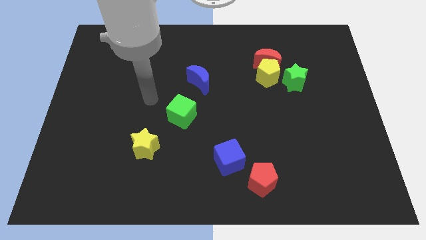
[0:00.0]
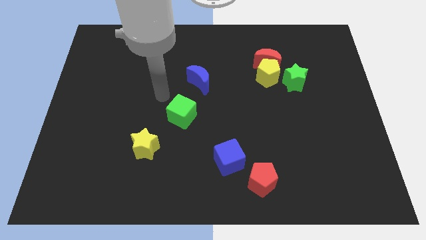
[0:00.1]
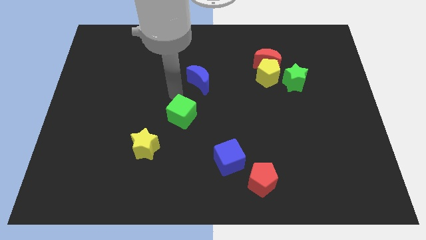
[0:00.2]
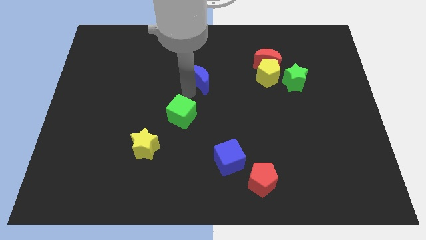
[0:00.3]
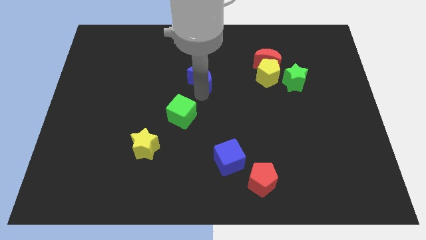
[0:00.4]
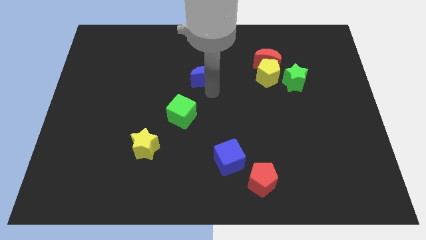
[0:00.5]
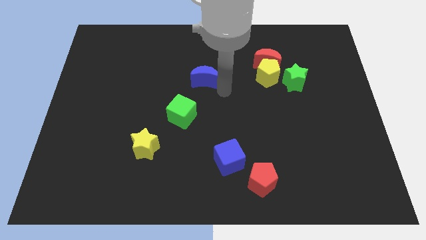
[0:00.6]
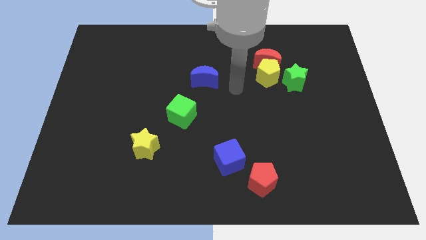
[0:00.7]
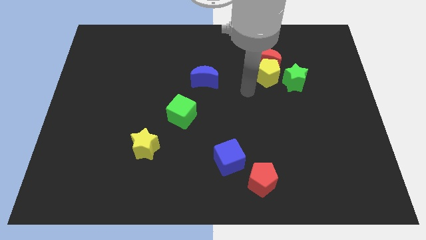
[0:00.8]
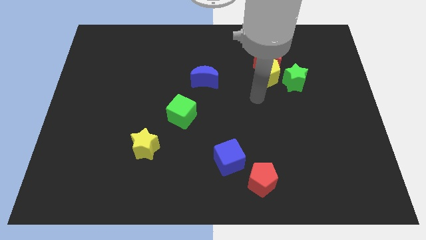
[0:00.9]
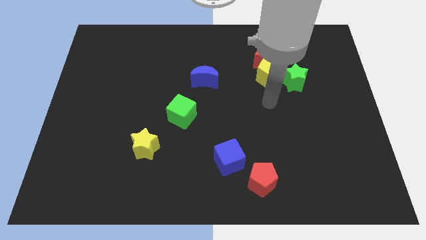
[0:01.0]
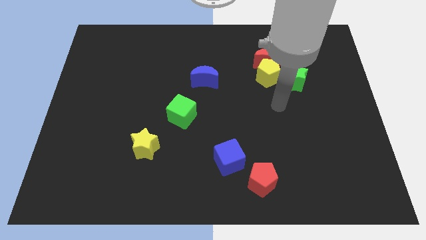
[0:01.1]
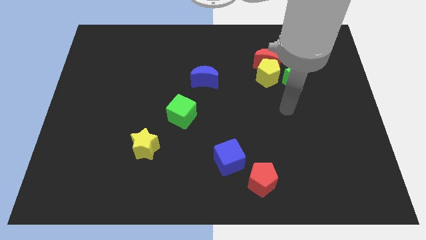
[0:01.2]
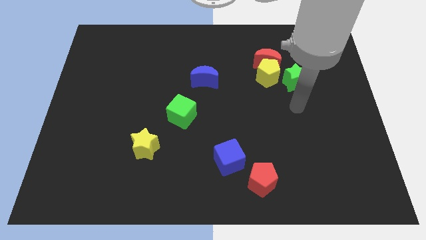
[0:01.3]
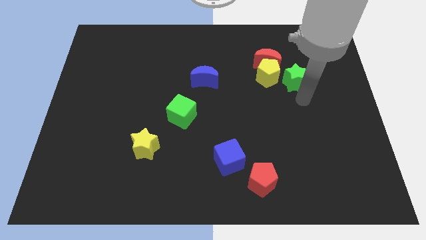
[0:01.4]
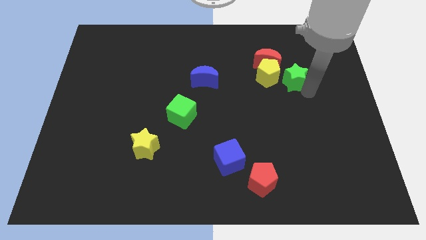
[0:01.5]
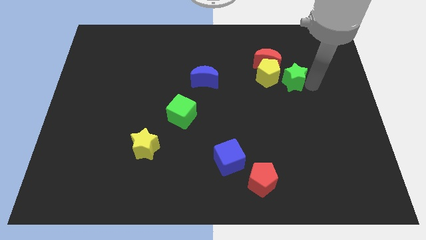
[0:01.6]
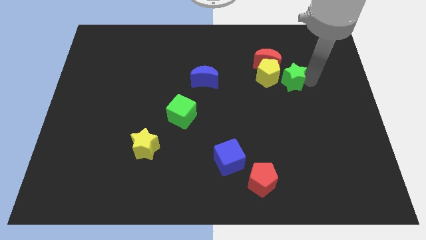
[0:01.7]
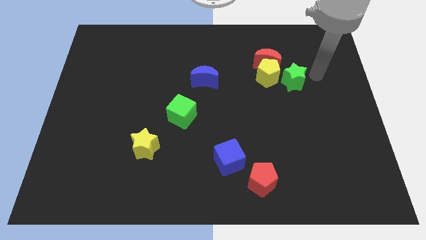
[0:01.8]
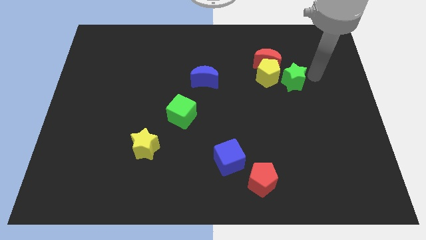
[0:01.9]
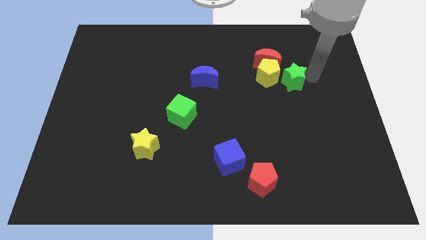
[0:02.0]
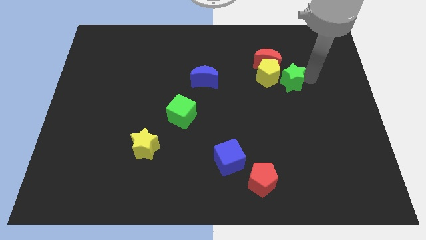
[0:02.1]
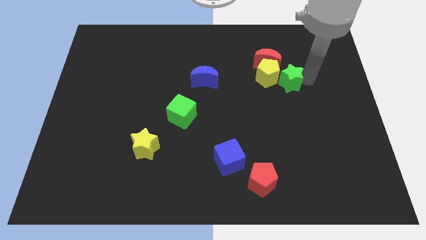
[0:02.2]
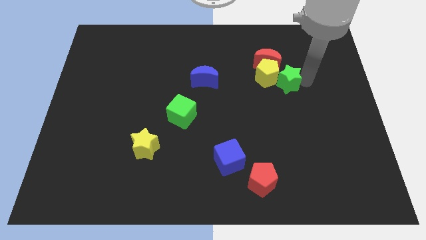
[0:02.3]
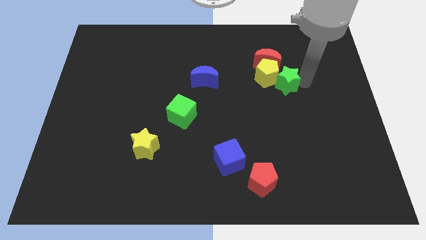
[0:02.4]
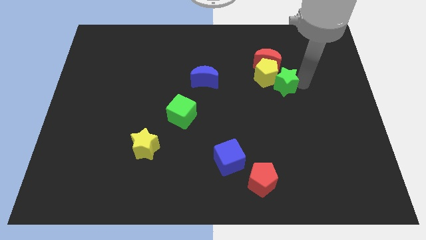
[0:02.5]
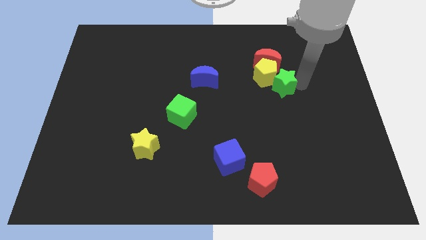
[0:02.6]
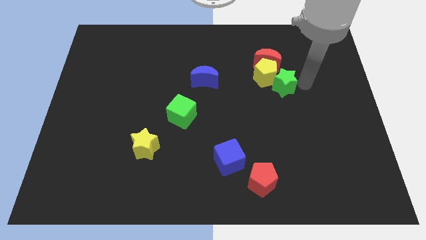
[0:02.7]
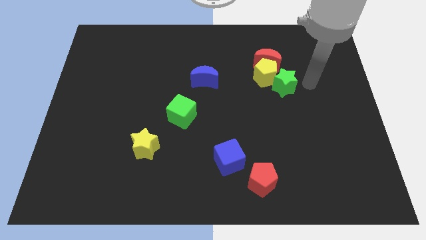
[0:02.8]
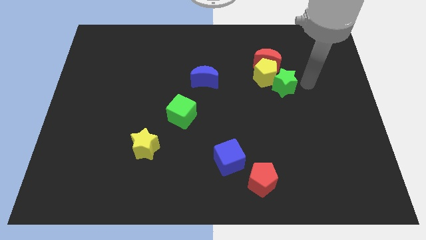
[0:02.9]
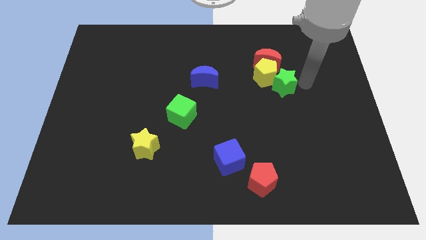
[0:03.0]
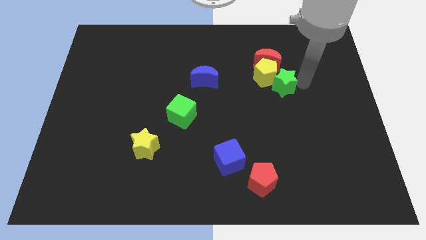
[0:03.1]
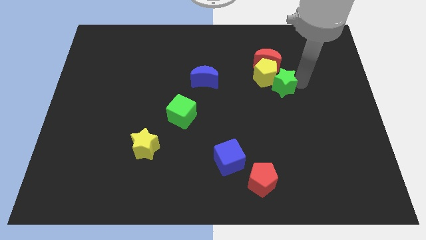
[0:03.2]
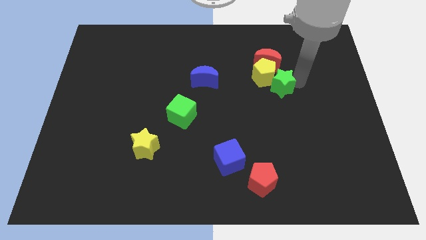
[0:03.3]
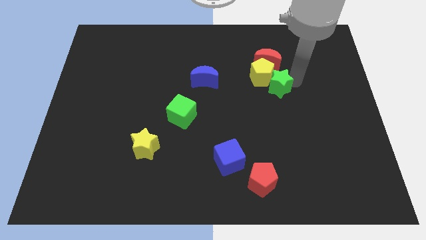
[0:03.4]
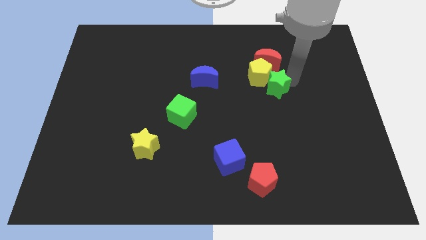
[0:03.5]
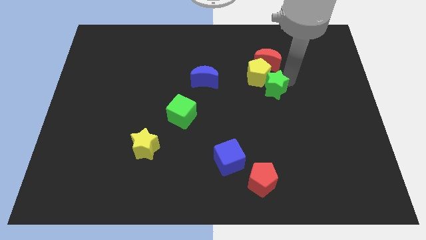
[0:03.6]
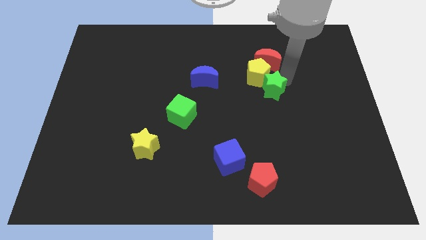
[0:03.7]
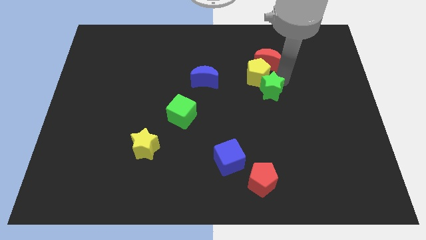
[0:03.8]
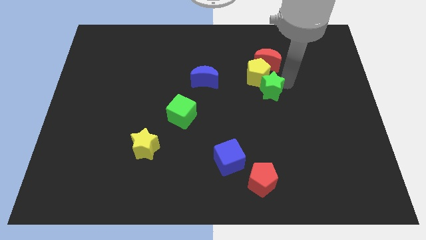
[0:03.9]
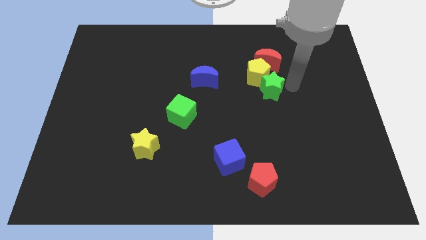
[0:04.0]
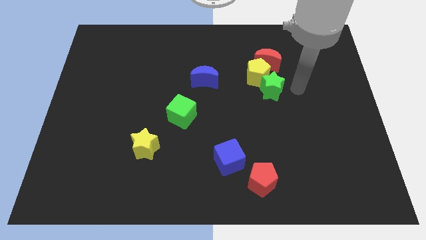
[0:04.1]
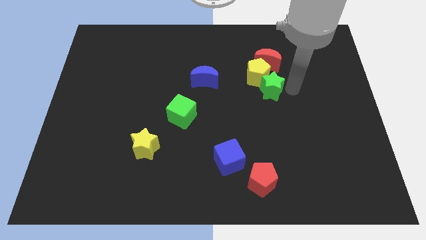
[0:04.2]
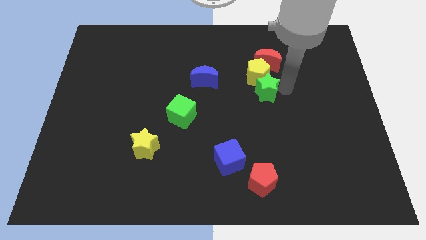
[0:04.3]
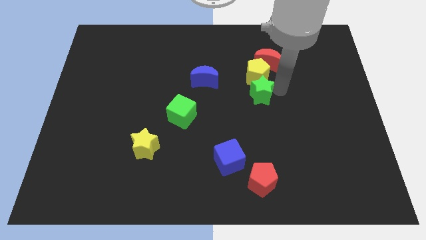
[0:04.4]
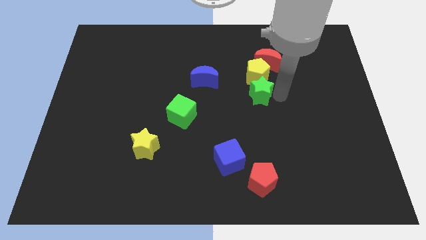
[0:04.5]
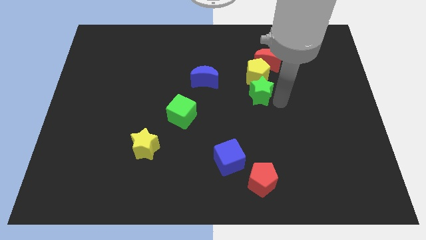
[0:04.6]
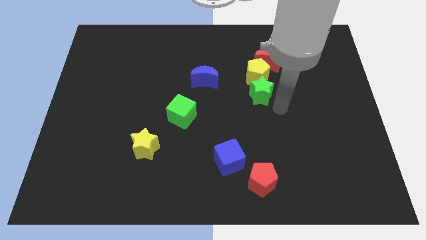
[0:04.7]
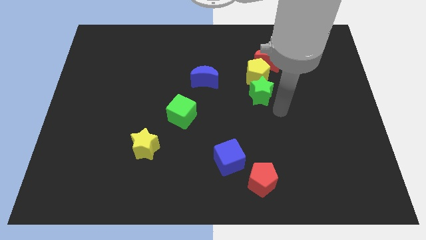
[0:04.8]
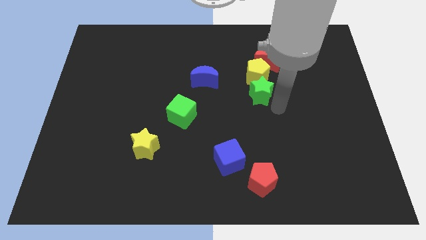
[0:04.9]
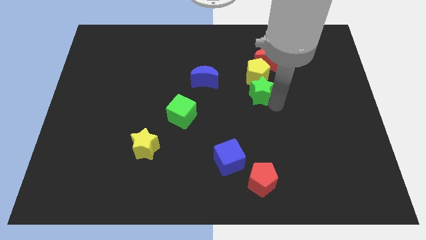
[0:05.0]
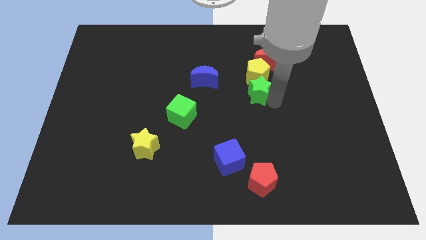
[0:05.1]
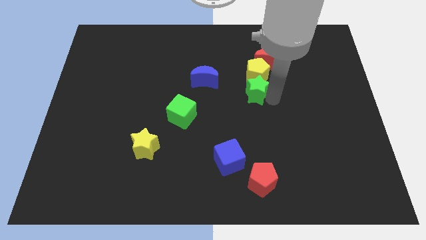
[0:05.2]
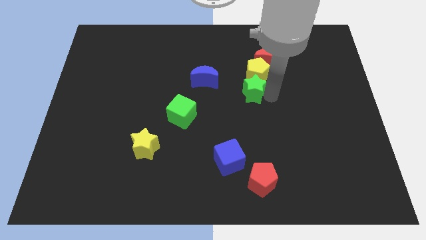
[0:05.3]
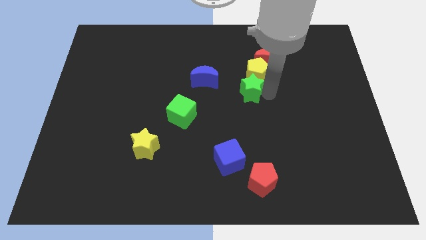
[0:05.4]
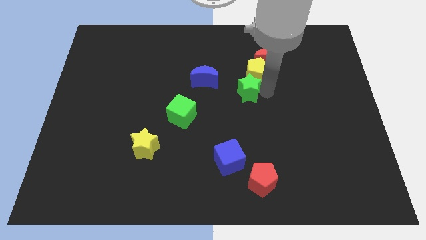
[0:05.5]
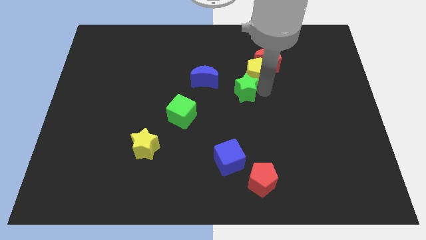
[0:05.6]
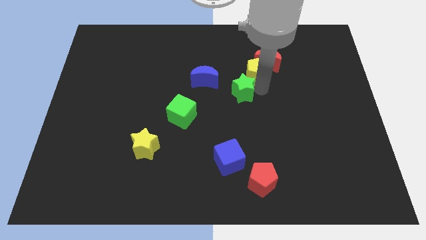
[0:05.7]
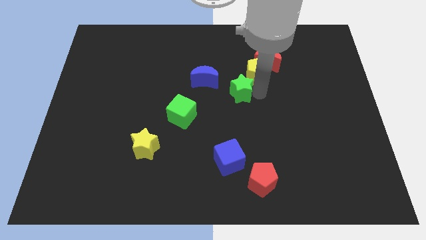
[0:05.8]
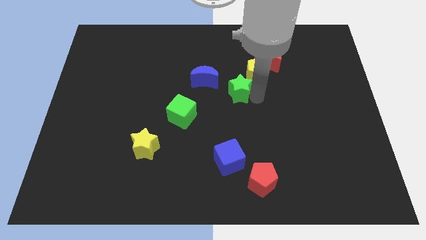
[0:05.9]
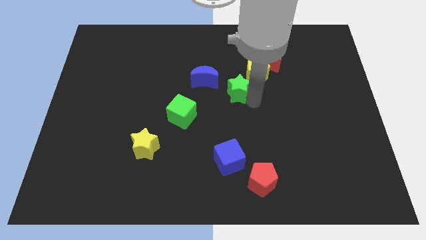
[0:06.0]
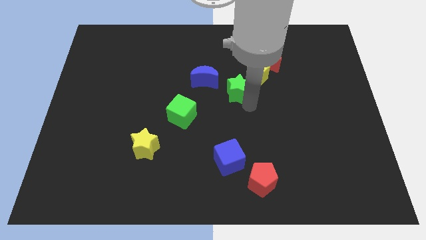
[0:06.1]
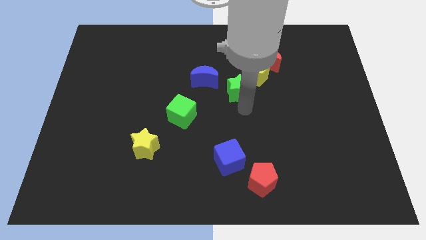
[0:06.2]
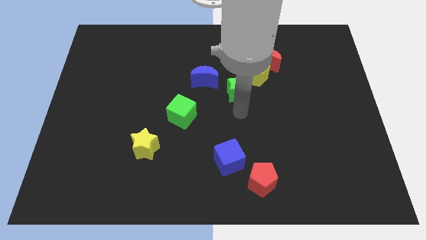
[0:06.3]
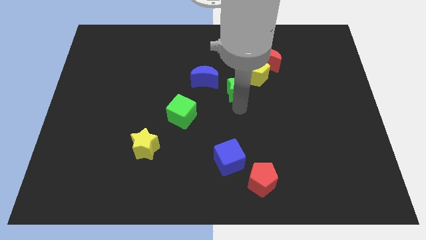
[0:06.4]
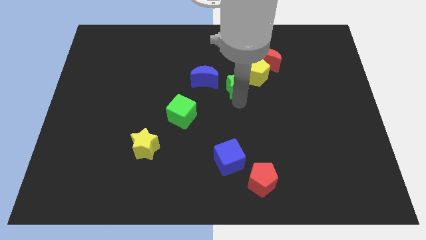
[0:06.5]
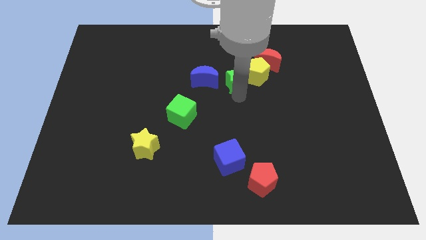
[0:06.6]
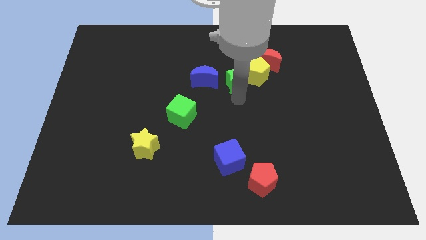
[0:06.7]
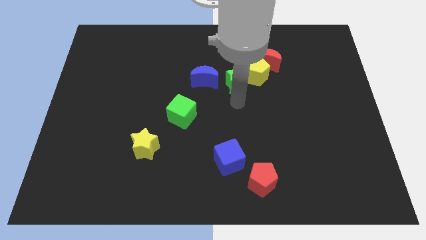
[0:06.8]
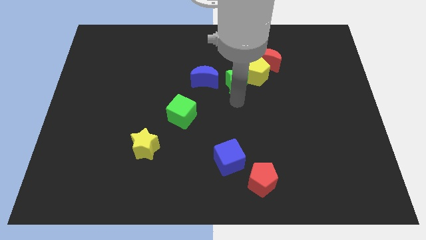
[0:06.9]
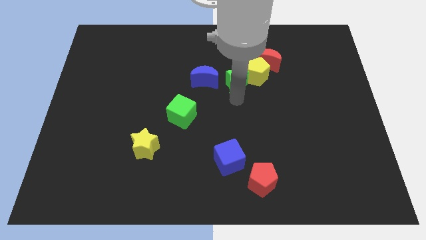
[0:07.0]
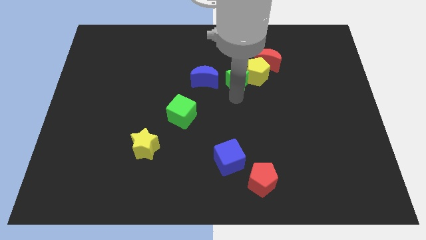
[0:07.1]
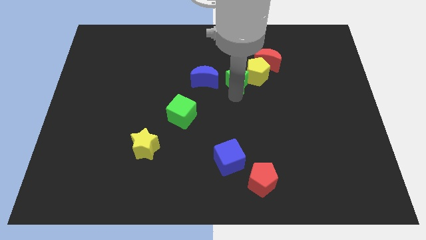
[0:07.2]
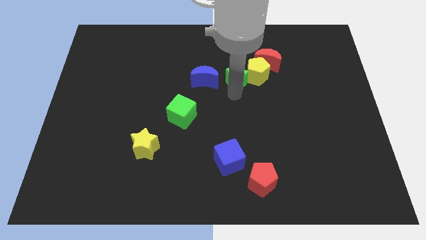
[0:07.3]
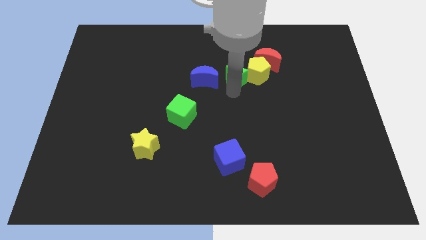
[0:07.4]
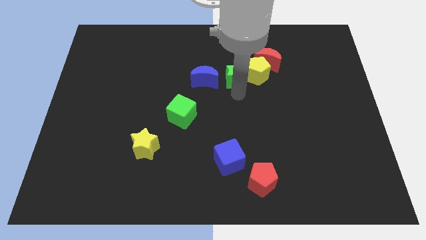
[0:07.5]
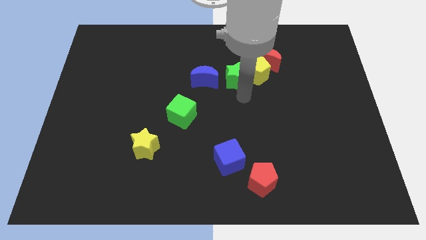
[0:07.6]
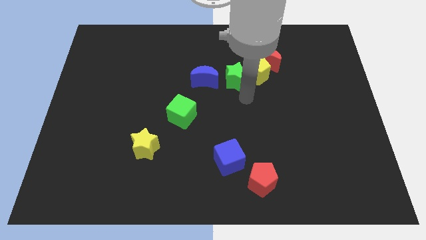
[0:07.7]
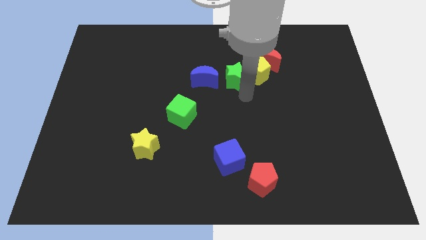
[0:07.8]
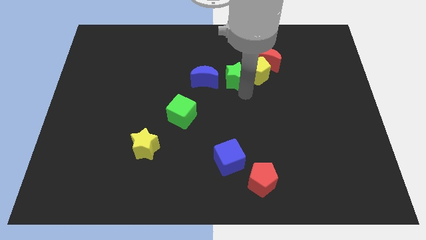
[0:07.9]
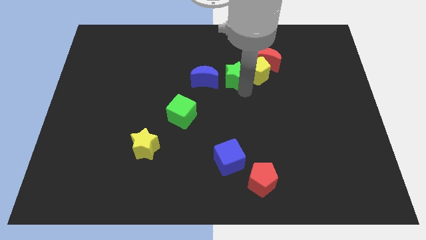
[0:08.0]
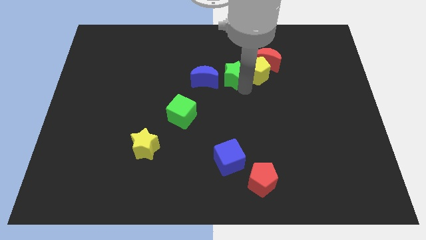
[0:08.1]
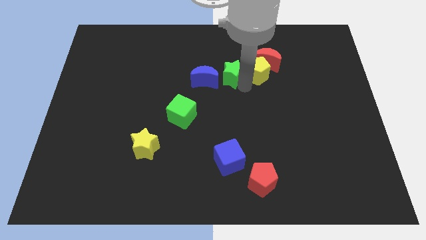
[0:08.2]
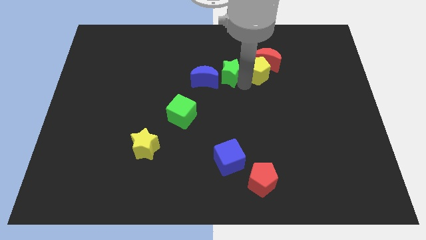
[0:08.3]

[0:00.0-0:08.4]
push the green star left of the red moon
